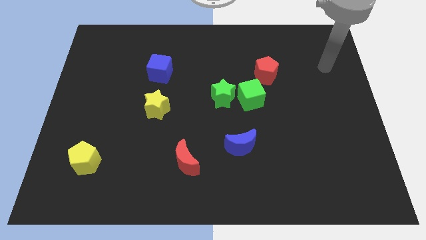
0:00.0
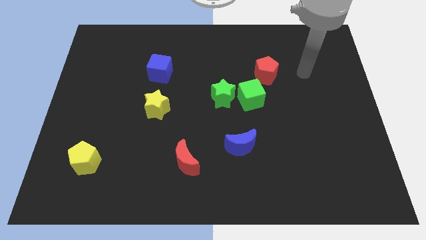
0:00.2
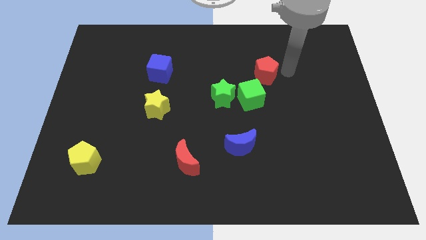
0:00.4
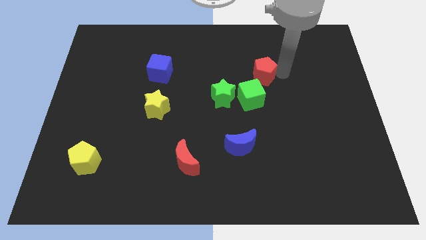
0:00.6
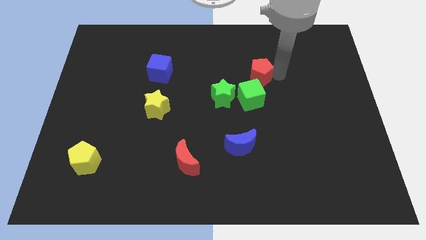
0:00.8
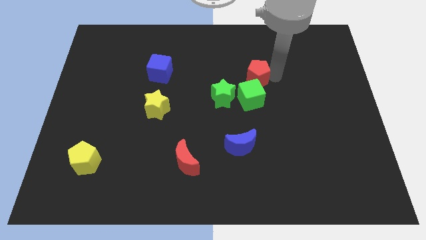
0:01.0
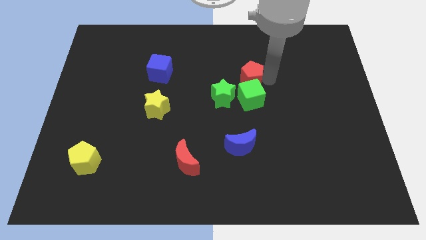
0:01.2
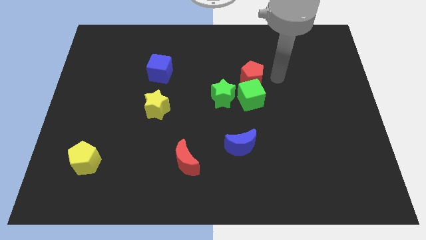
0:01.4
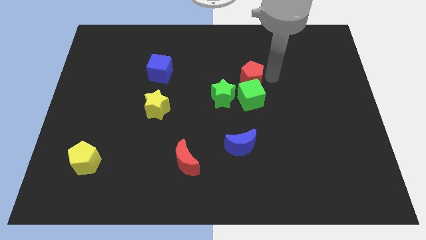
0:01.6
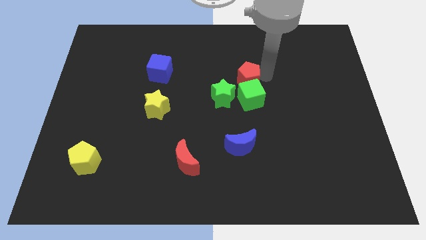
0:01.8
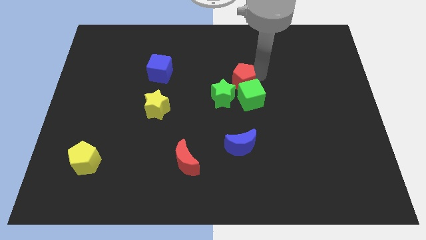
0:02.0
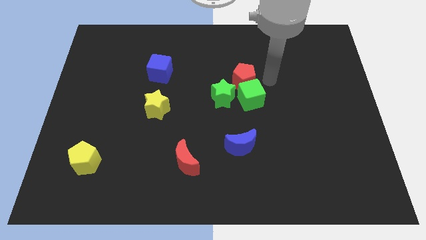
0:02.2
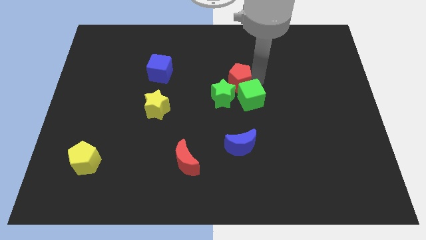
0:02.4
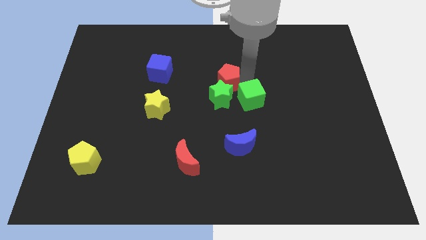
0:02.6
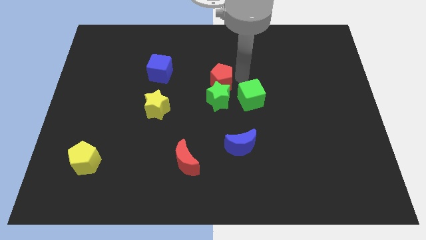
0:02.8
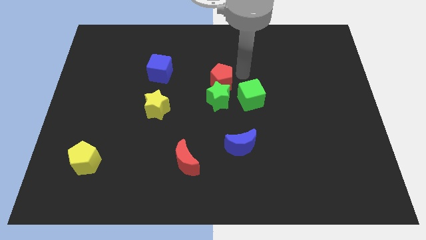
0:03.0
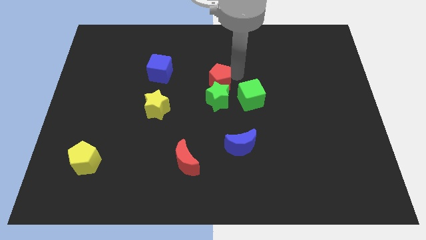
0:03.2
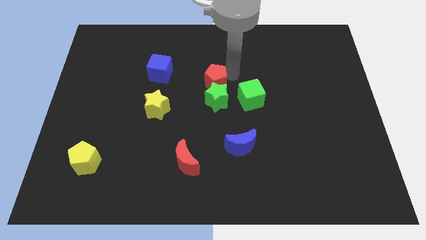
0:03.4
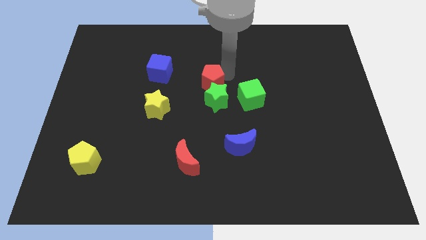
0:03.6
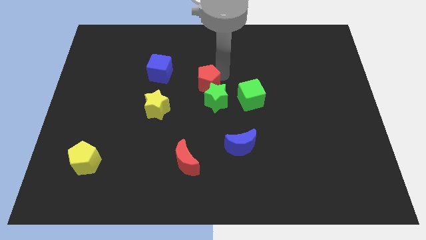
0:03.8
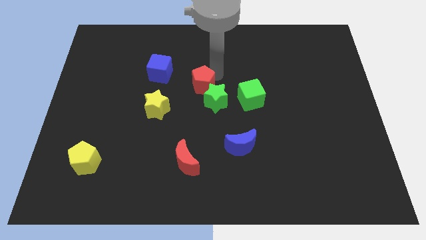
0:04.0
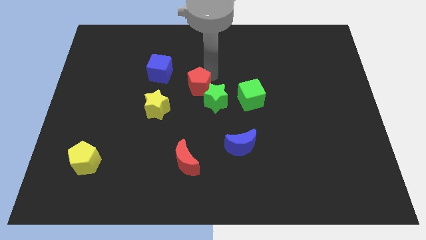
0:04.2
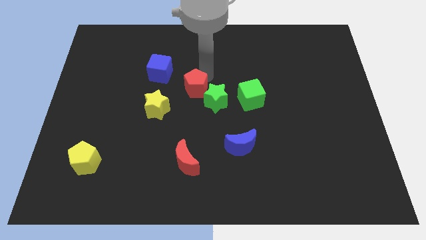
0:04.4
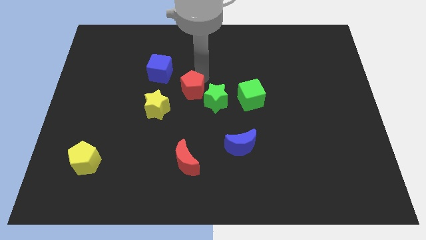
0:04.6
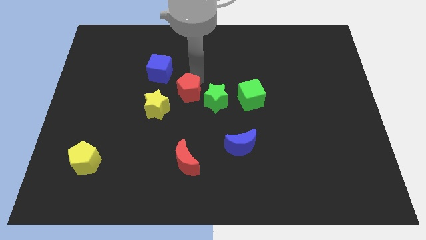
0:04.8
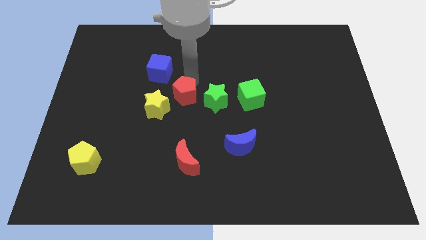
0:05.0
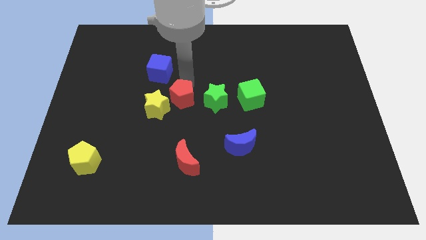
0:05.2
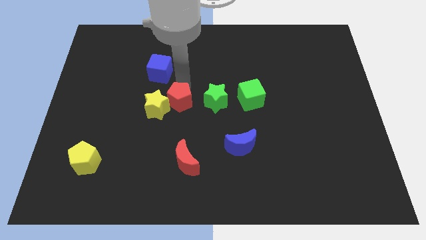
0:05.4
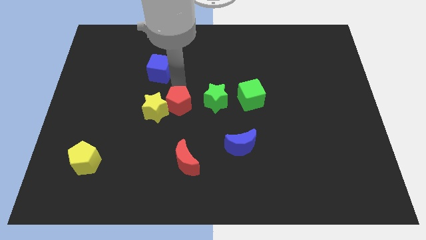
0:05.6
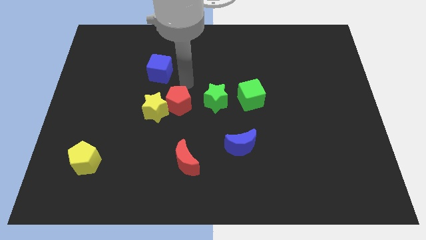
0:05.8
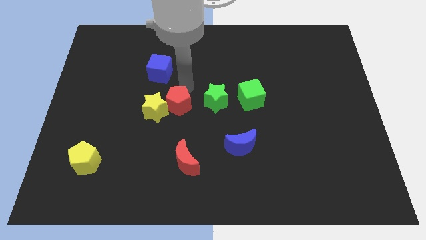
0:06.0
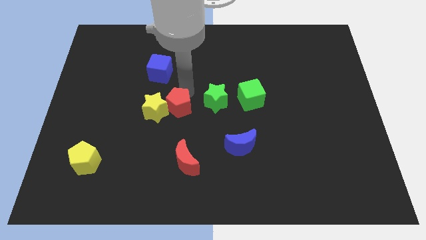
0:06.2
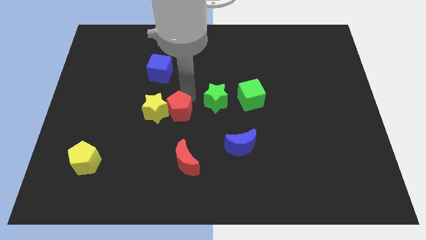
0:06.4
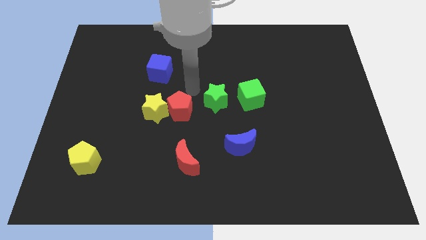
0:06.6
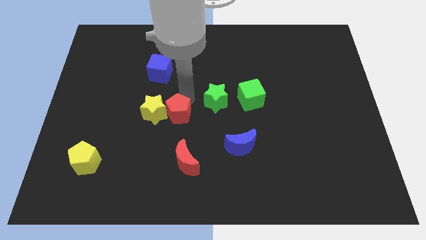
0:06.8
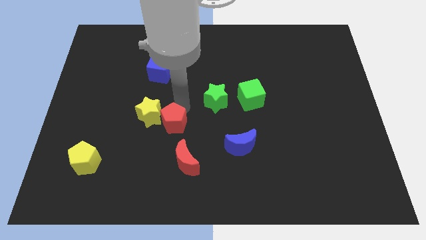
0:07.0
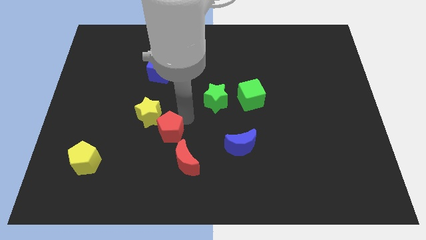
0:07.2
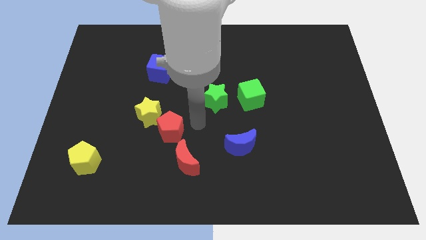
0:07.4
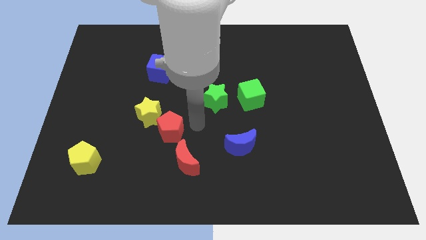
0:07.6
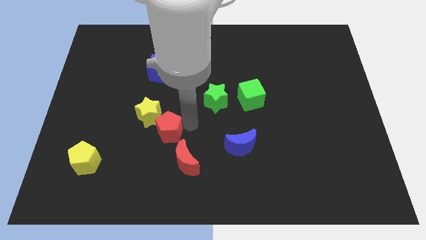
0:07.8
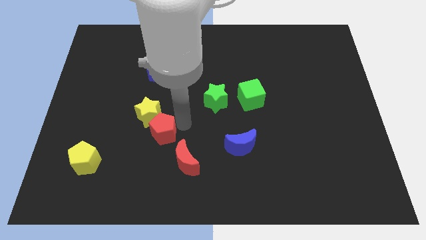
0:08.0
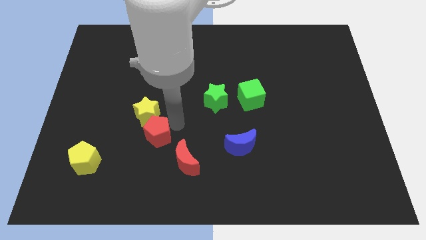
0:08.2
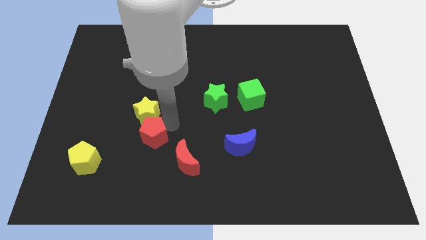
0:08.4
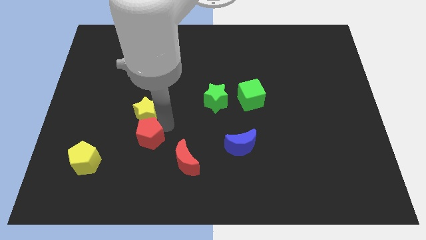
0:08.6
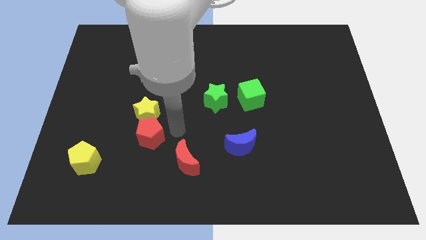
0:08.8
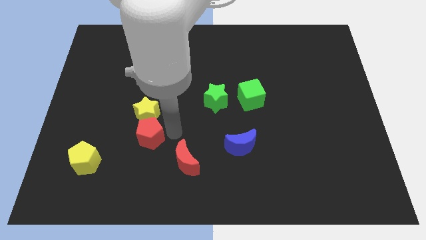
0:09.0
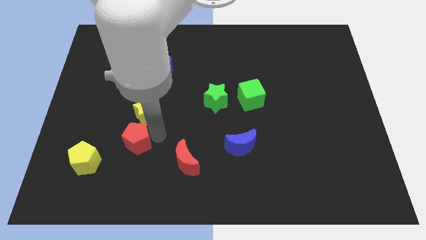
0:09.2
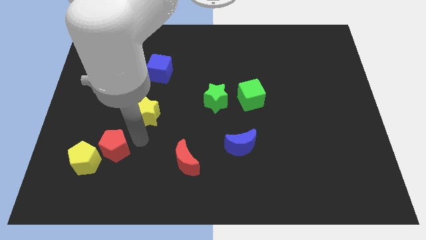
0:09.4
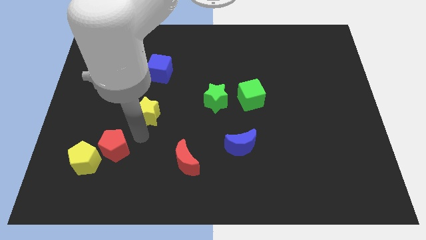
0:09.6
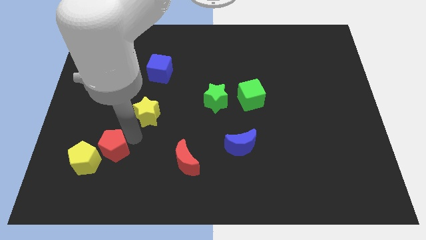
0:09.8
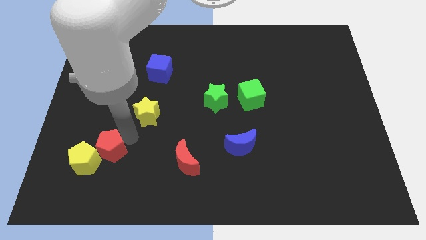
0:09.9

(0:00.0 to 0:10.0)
slide the red pentagon towards the yellow pentagon

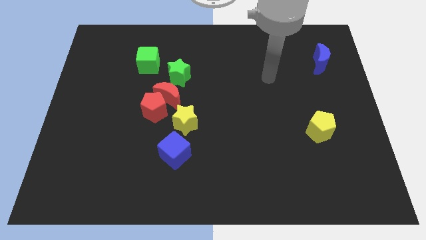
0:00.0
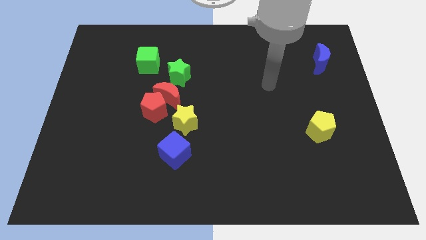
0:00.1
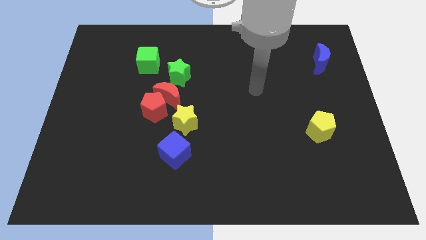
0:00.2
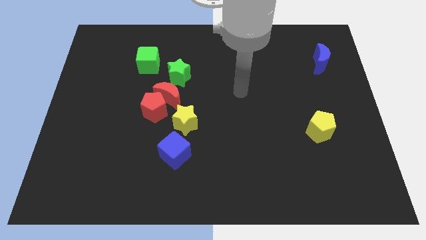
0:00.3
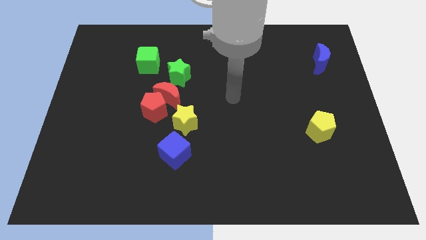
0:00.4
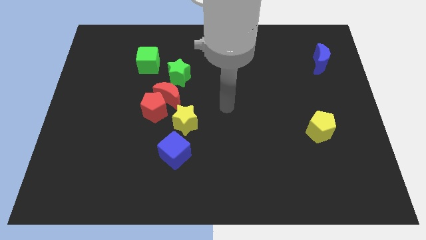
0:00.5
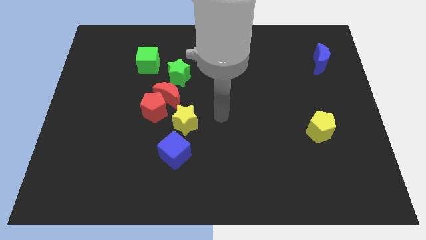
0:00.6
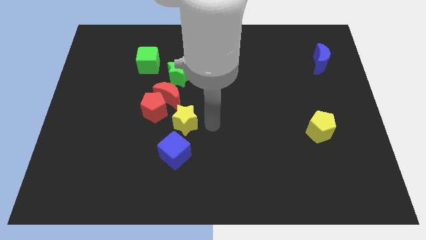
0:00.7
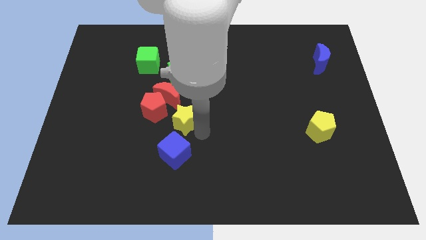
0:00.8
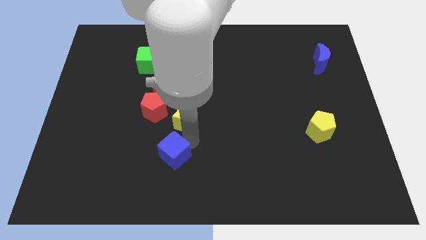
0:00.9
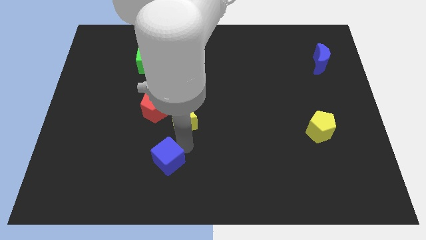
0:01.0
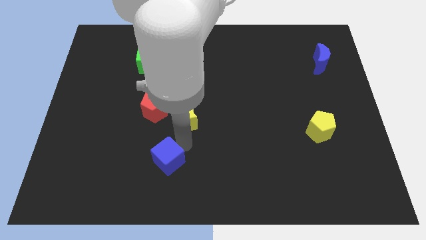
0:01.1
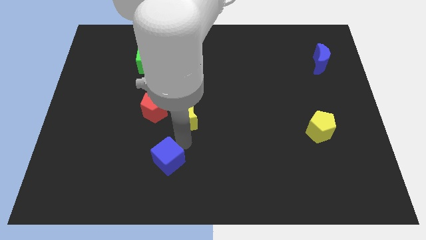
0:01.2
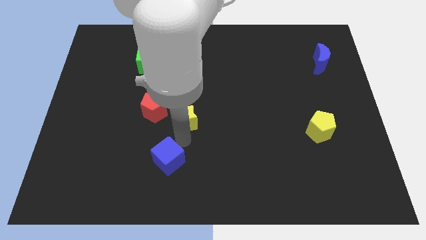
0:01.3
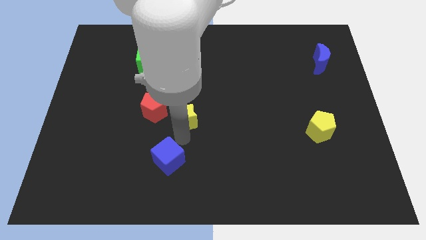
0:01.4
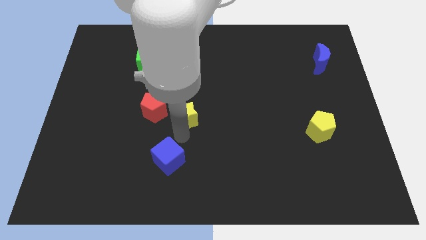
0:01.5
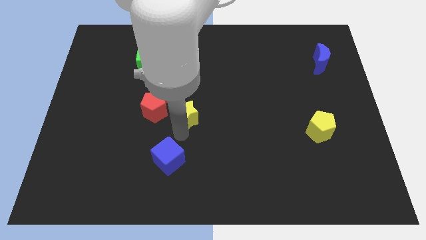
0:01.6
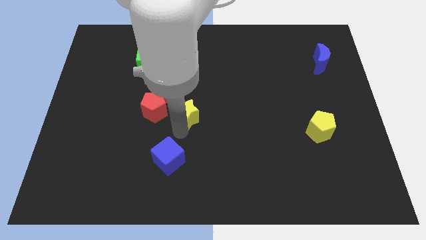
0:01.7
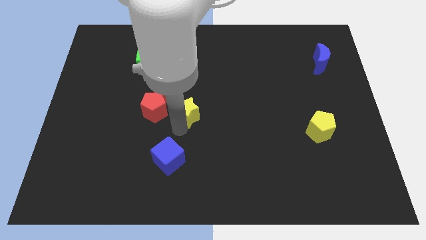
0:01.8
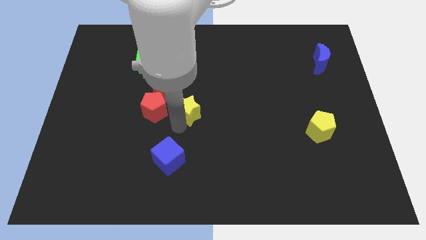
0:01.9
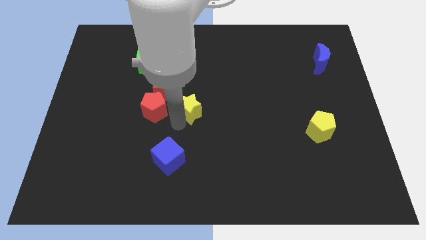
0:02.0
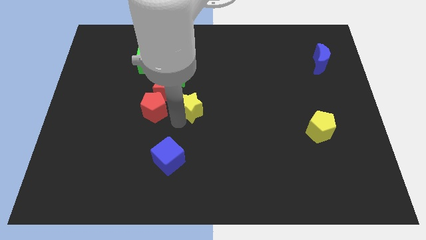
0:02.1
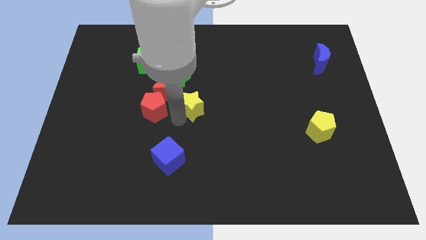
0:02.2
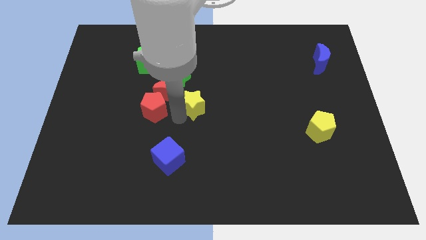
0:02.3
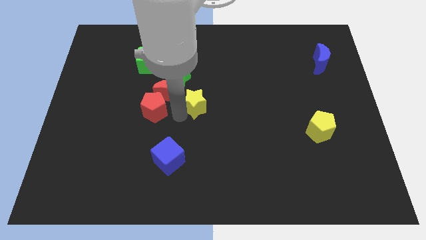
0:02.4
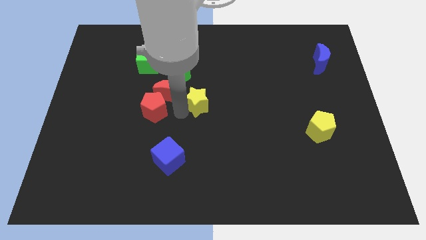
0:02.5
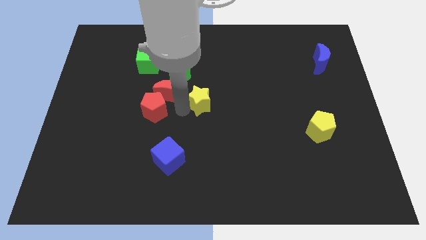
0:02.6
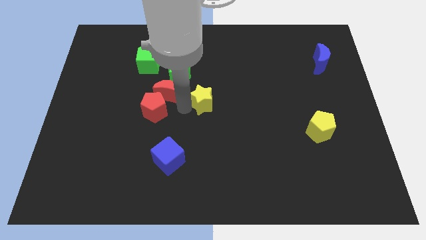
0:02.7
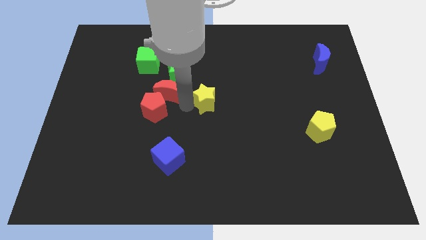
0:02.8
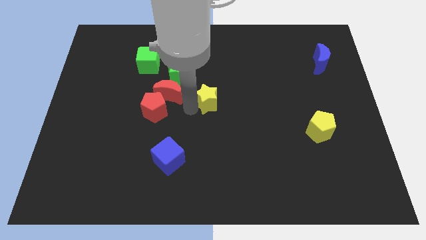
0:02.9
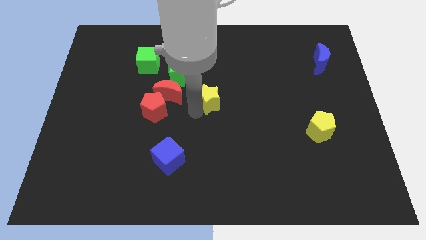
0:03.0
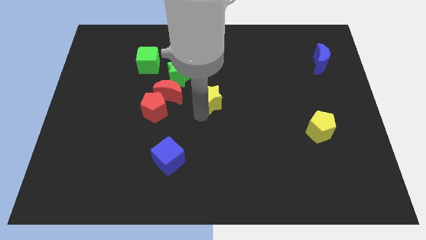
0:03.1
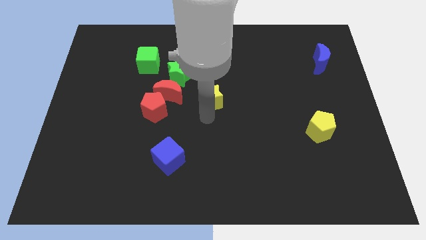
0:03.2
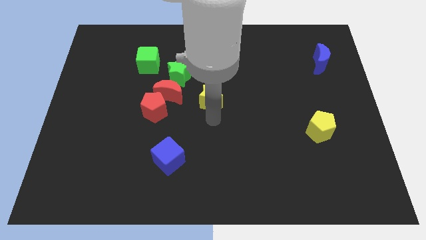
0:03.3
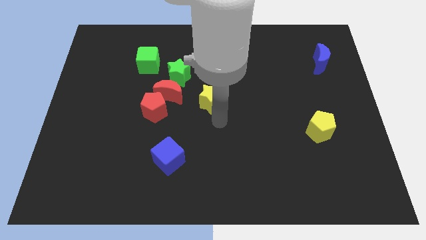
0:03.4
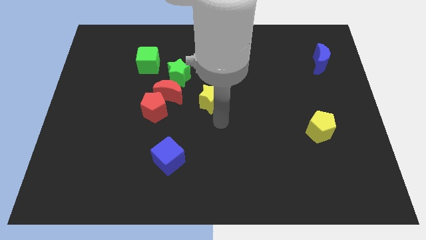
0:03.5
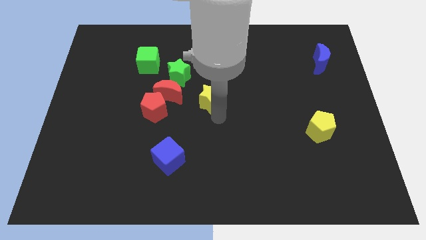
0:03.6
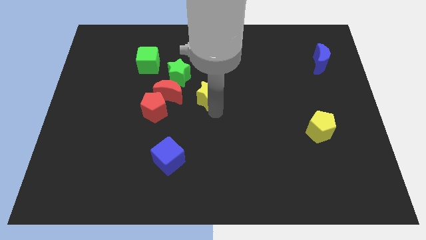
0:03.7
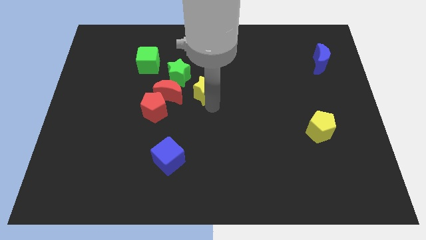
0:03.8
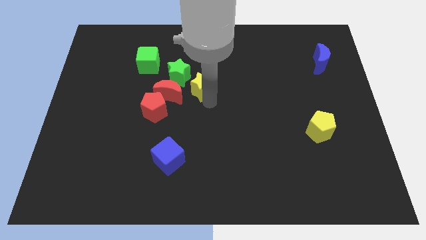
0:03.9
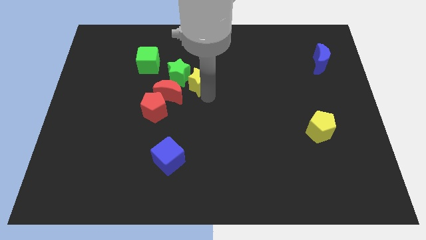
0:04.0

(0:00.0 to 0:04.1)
slide the yellow star close to the green star
